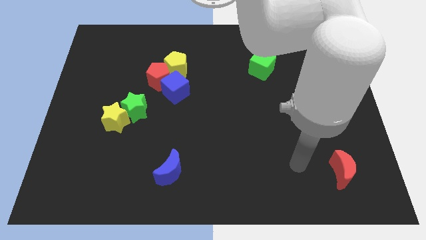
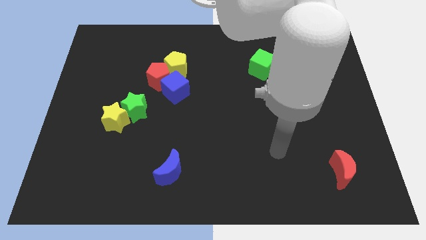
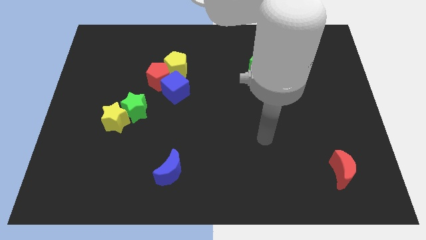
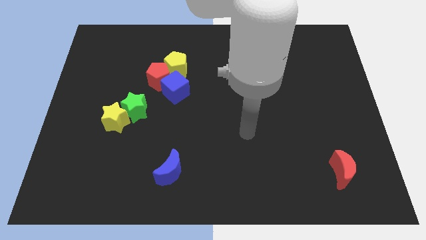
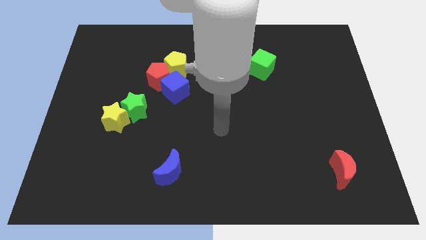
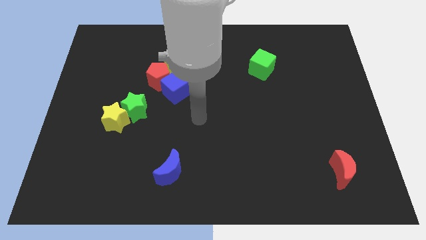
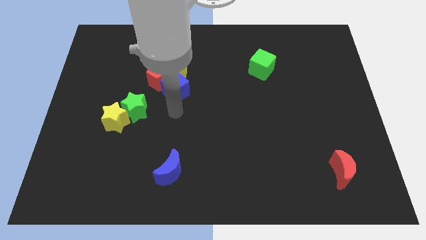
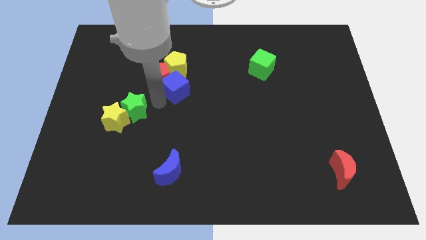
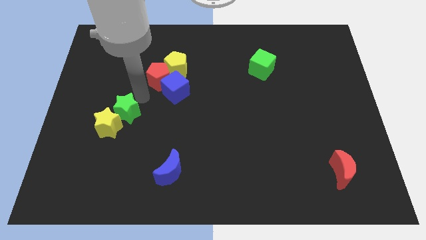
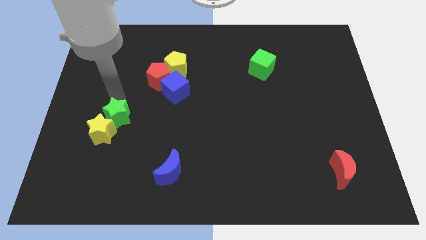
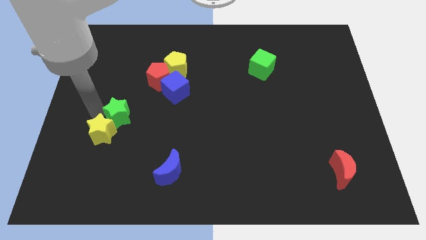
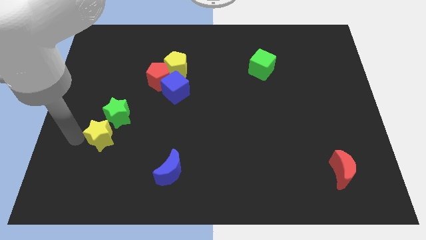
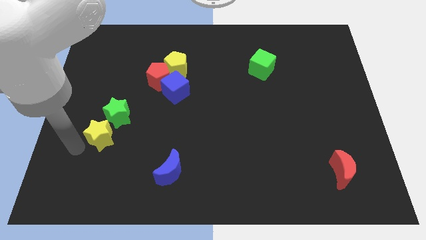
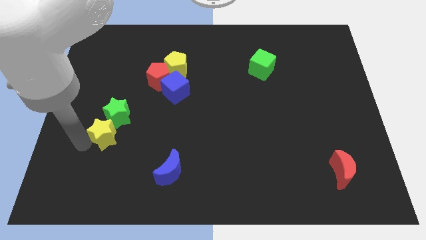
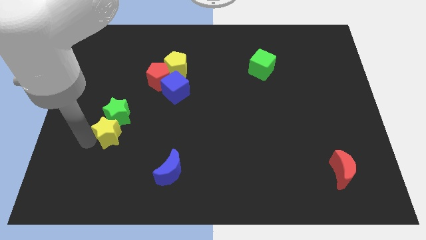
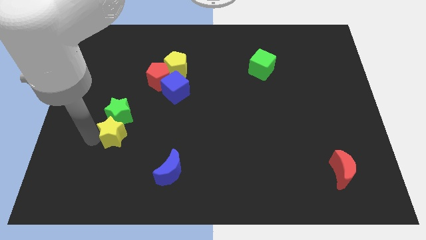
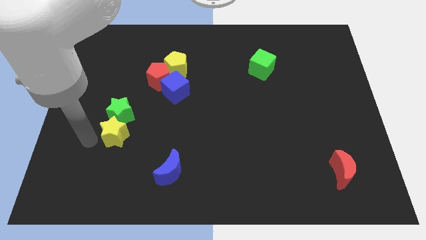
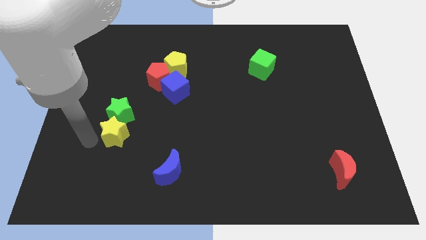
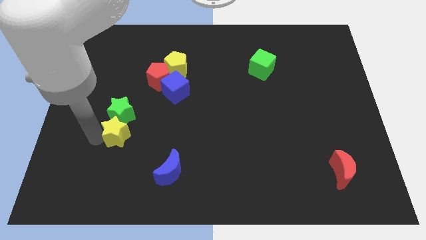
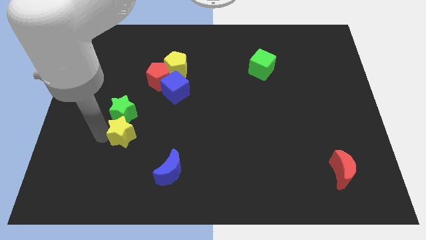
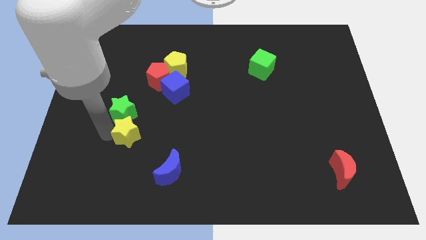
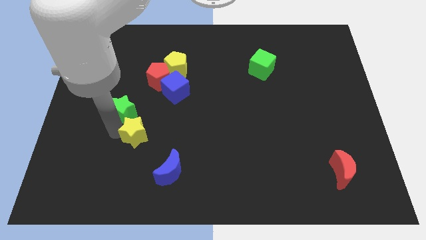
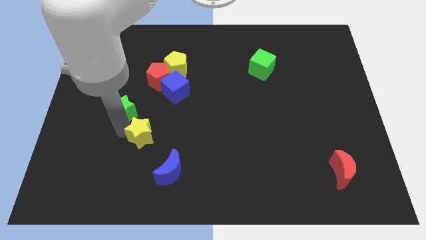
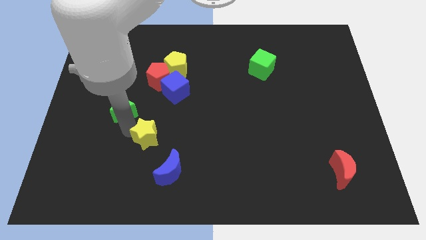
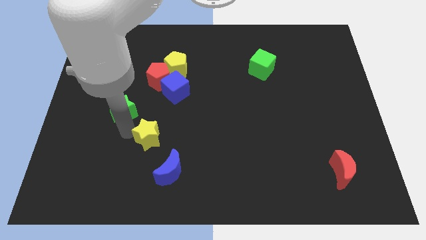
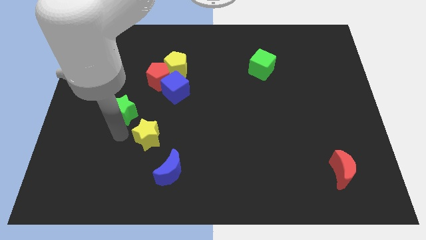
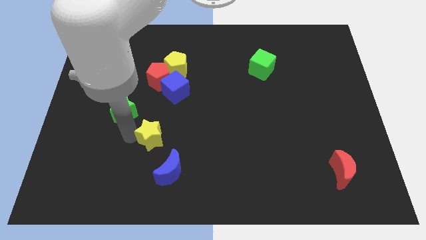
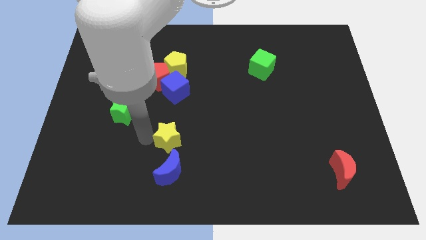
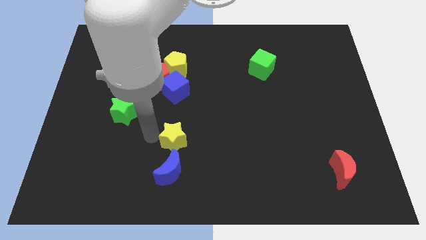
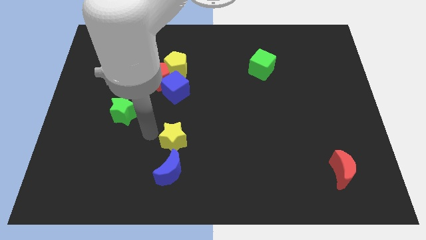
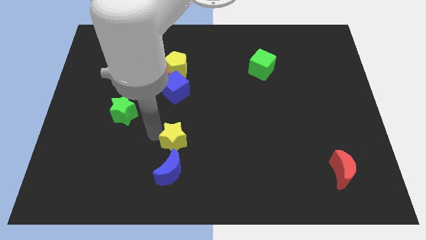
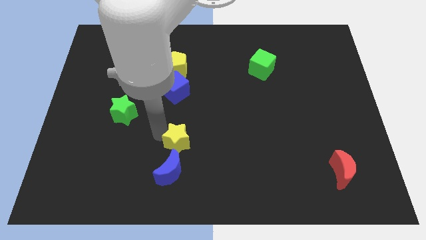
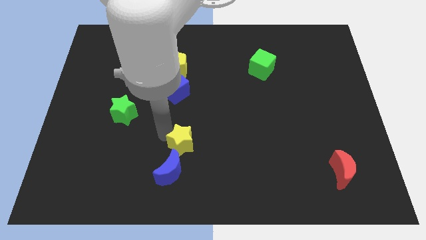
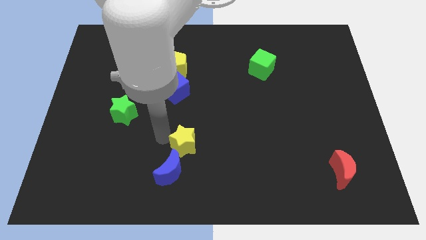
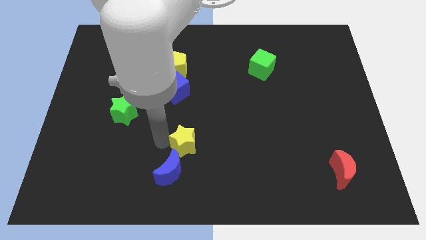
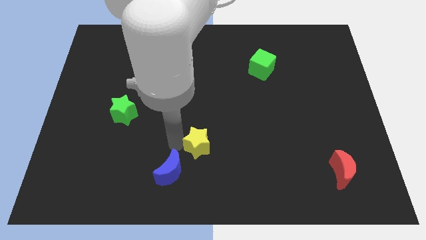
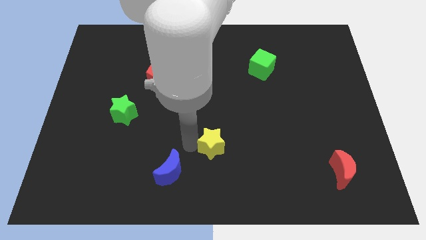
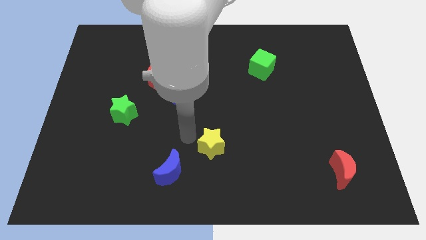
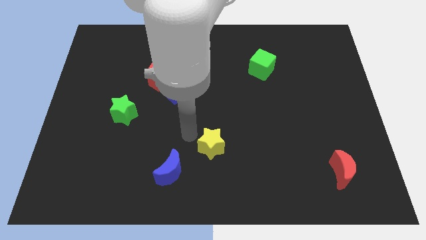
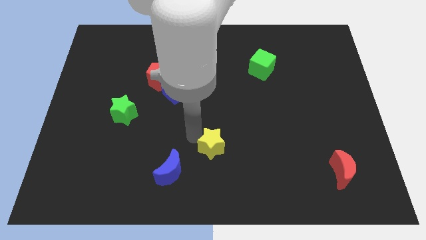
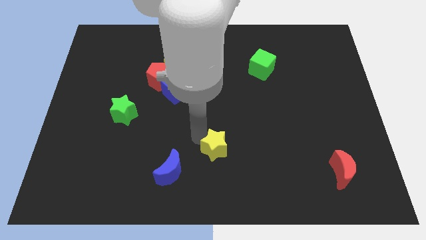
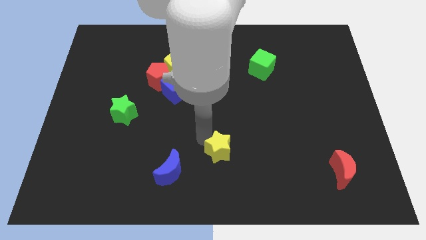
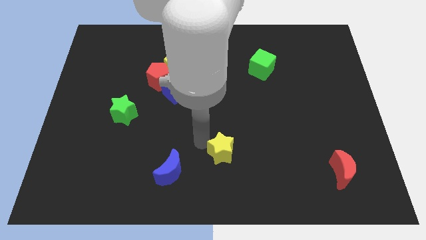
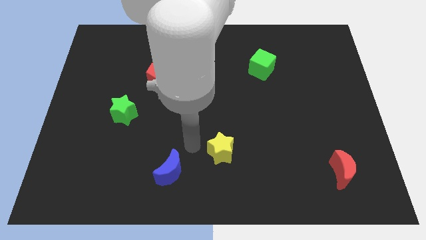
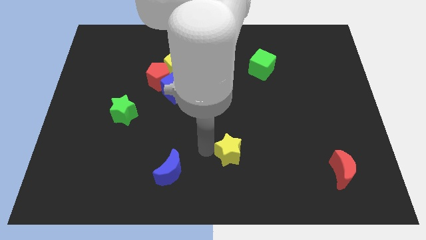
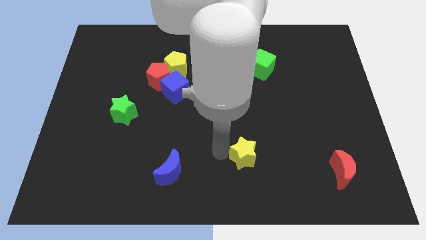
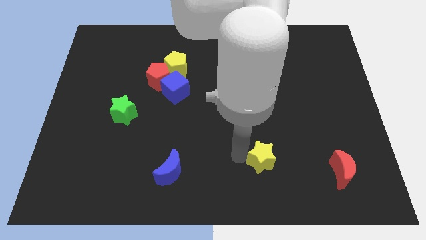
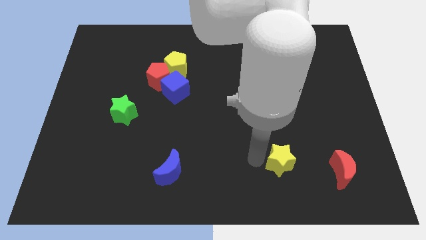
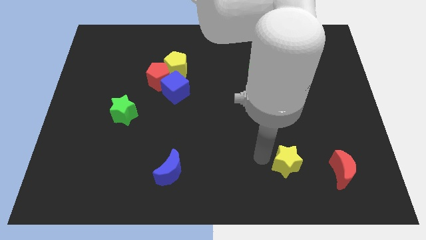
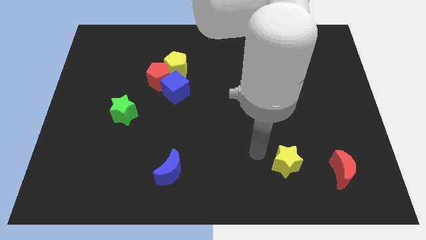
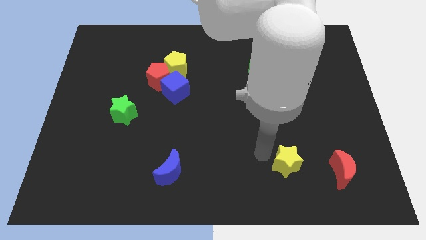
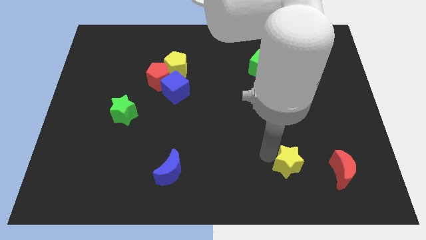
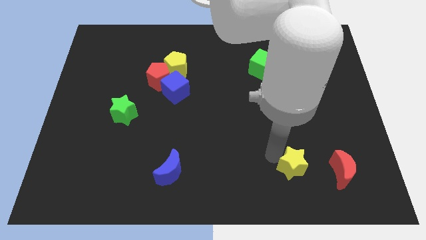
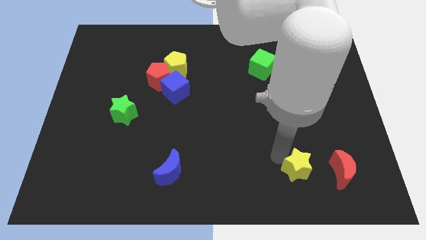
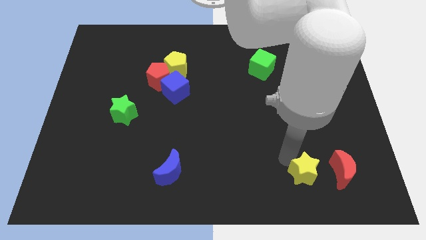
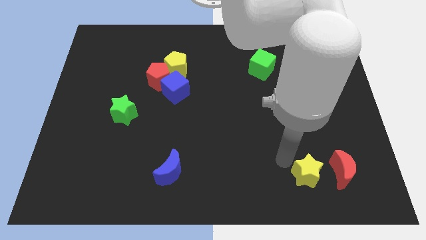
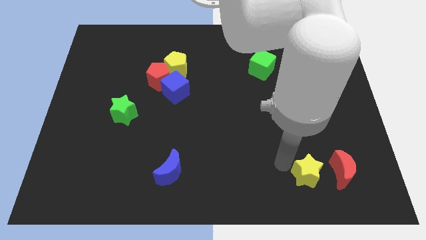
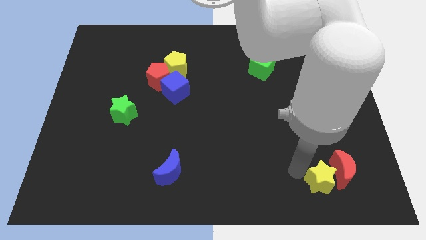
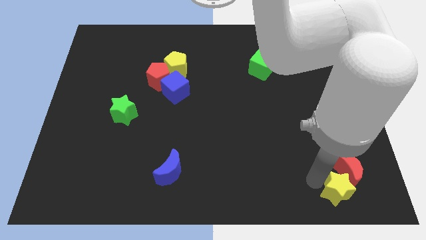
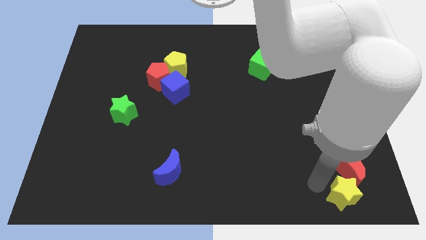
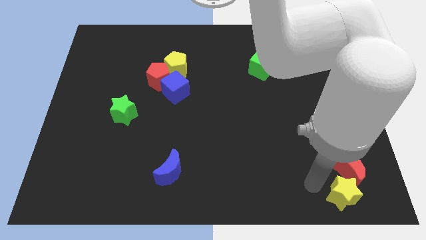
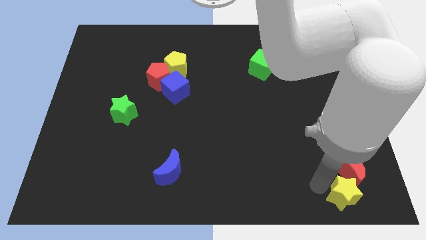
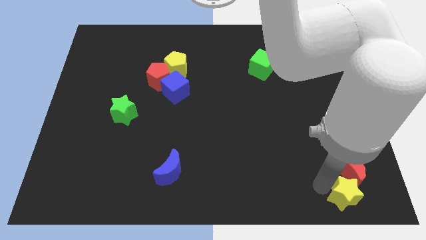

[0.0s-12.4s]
push the yellow star to the bottom right corner

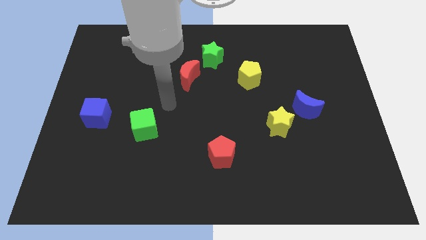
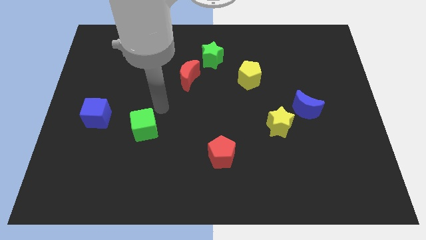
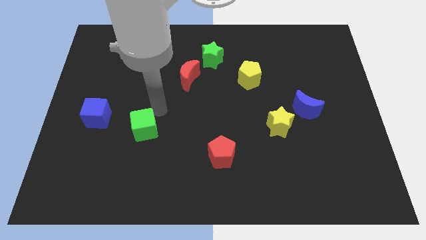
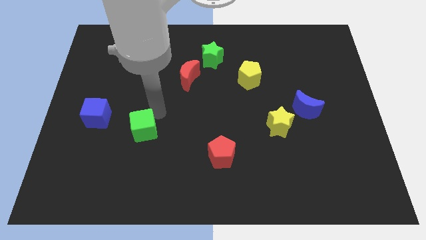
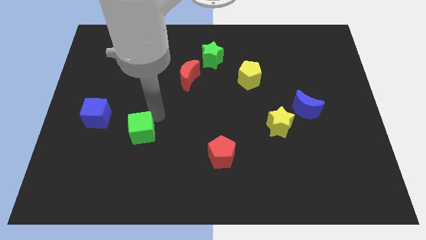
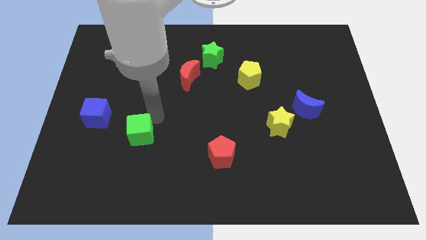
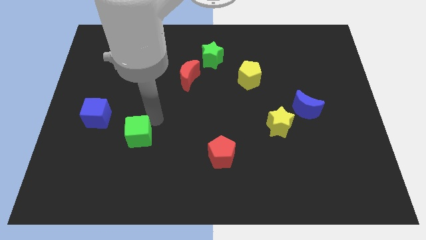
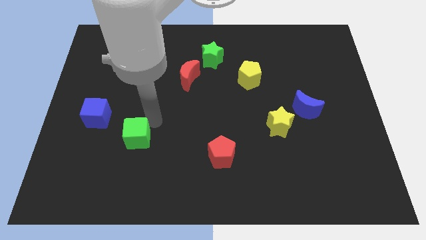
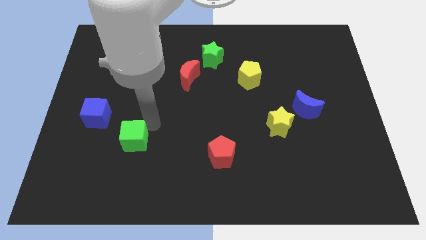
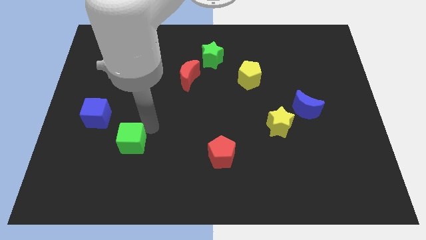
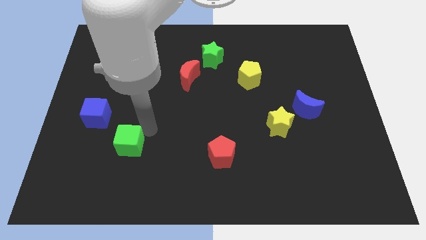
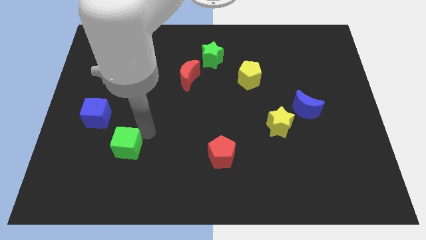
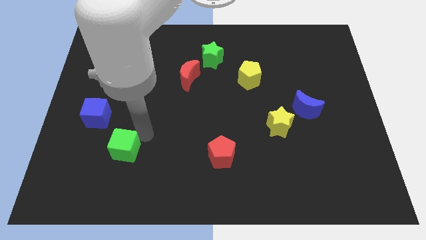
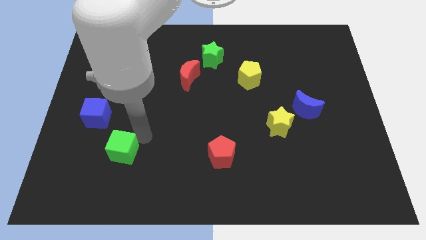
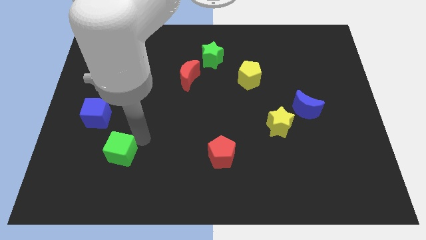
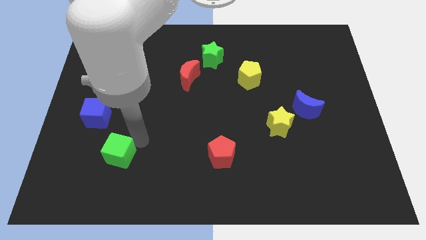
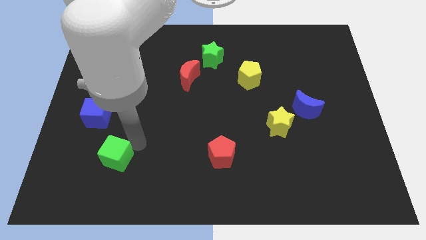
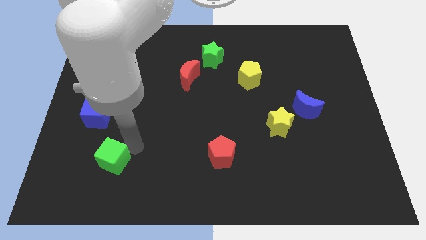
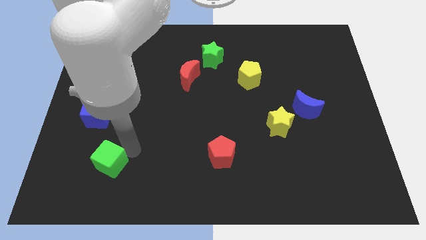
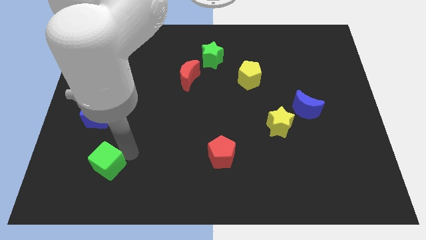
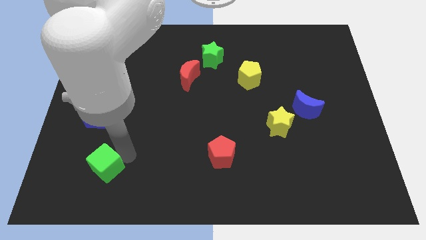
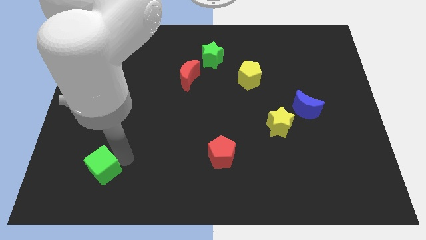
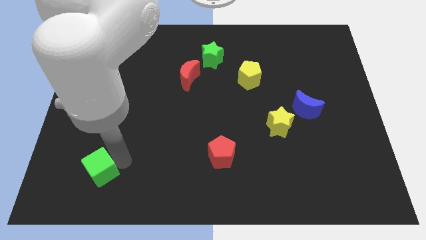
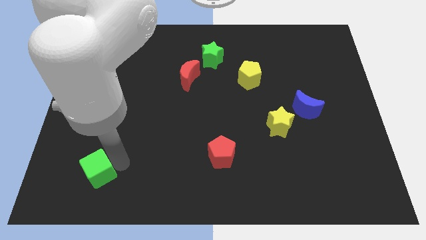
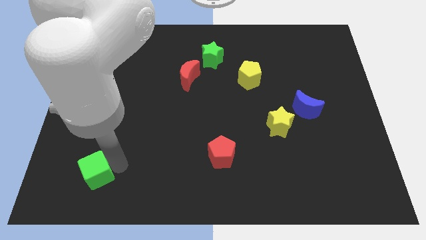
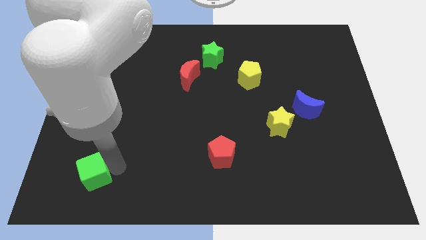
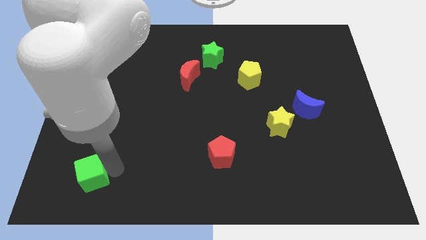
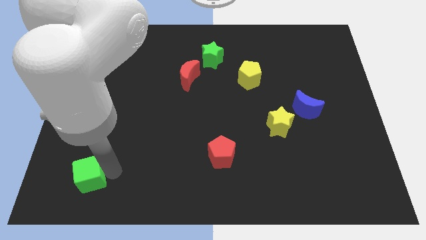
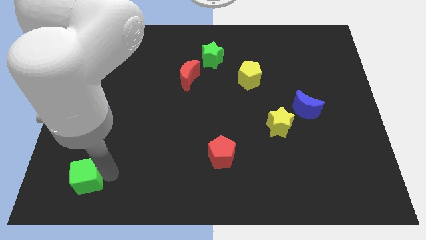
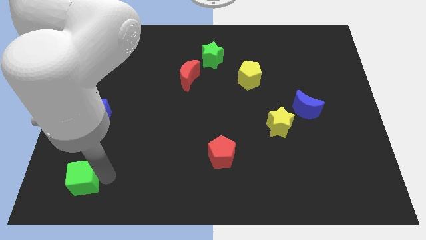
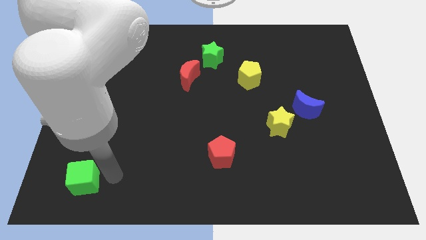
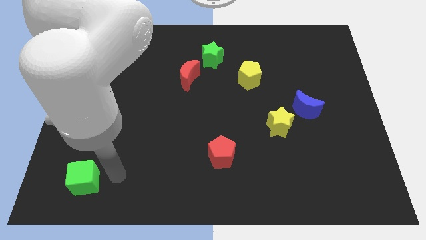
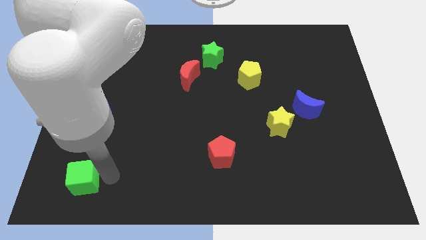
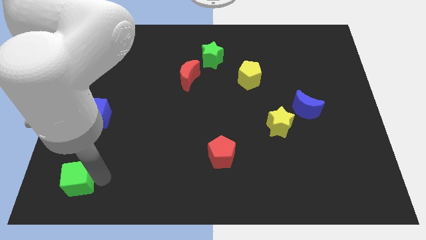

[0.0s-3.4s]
slide the green cube to the bottom left corner
